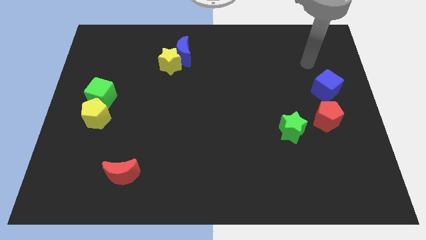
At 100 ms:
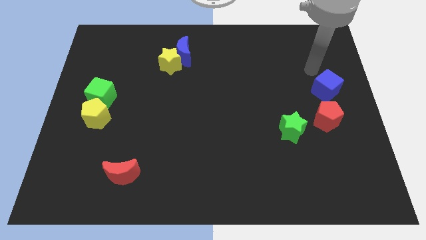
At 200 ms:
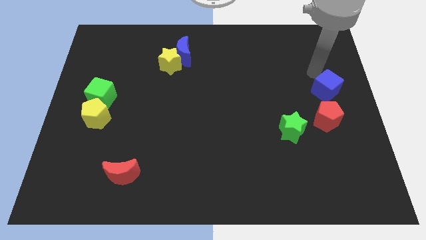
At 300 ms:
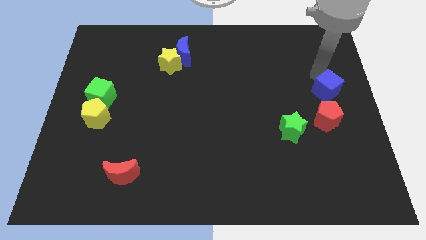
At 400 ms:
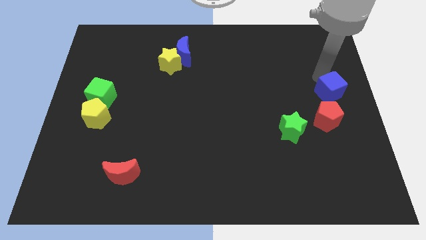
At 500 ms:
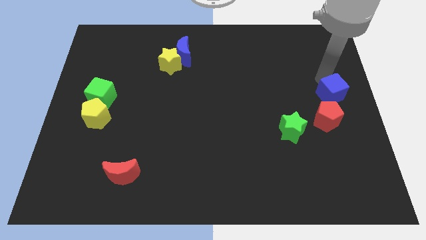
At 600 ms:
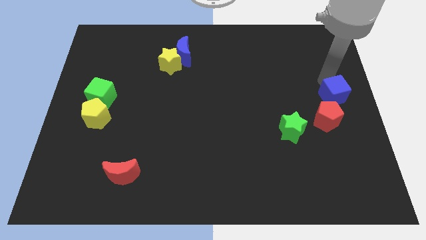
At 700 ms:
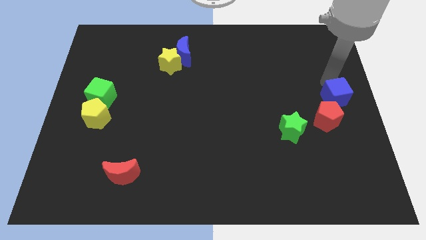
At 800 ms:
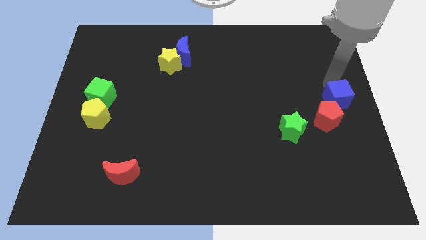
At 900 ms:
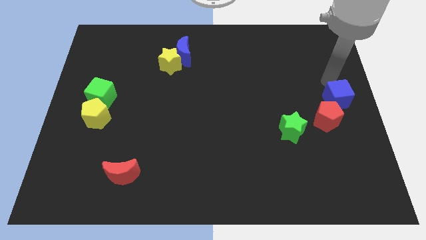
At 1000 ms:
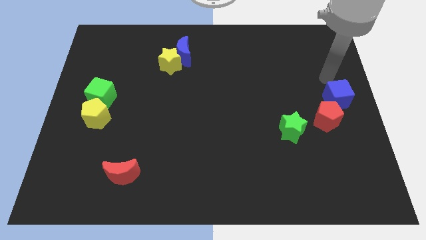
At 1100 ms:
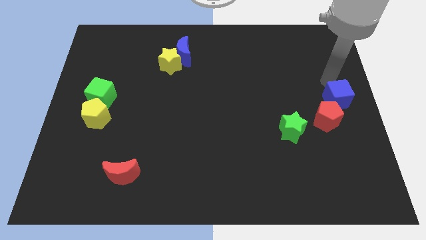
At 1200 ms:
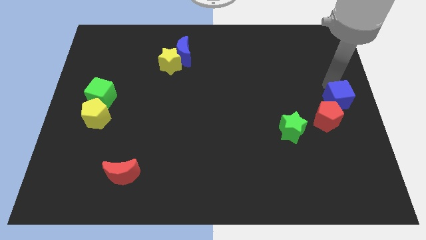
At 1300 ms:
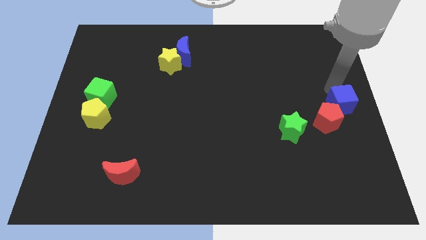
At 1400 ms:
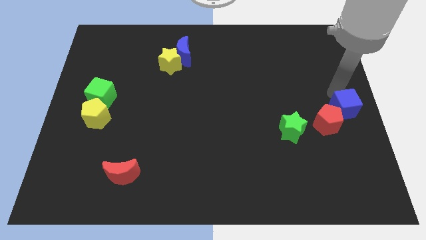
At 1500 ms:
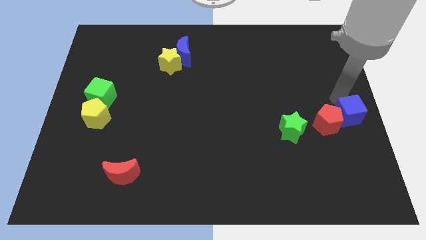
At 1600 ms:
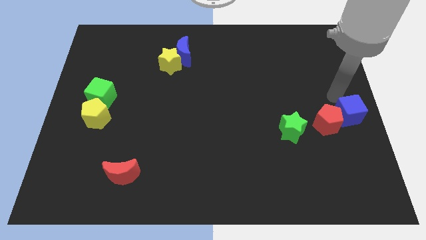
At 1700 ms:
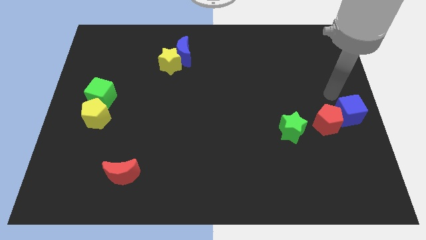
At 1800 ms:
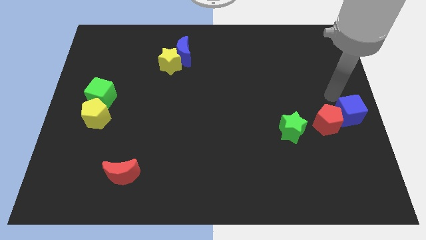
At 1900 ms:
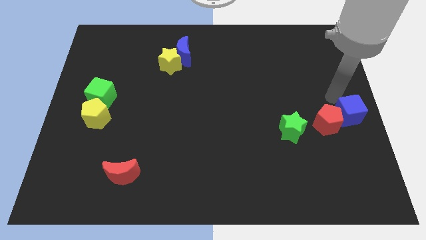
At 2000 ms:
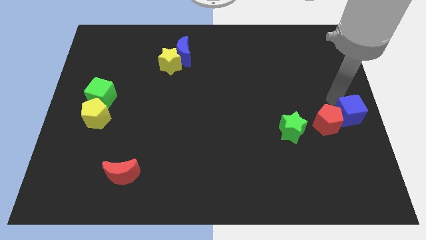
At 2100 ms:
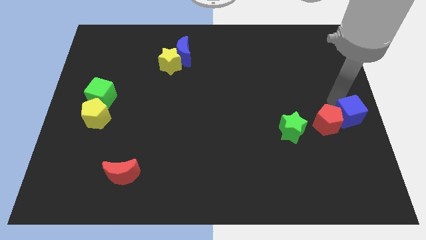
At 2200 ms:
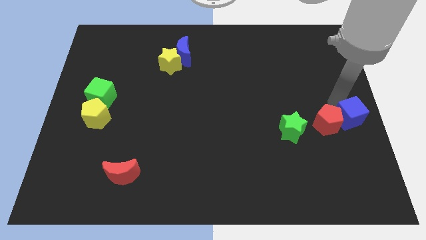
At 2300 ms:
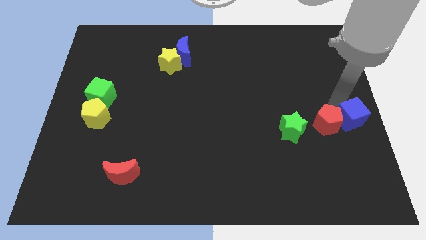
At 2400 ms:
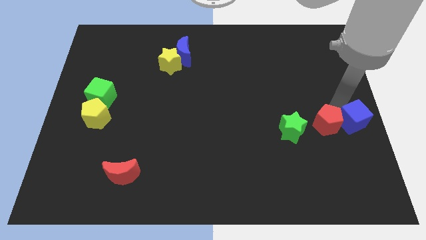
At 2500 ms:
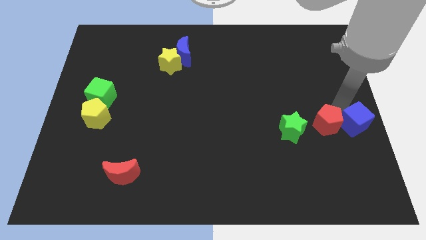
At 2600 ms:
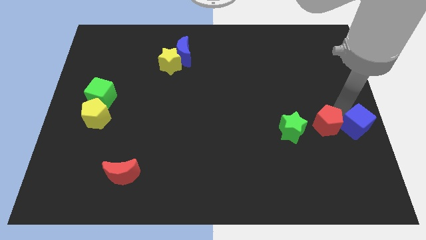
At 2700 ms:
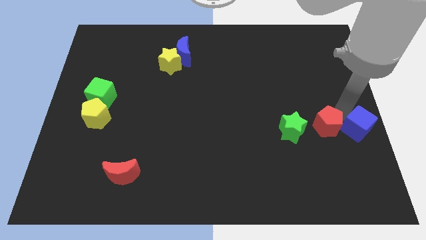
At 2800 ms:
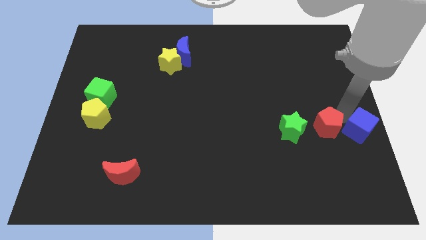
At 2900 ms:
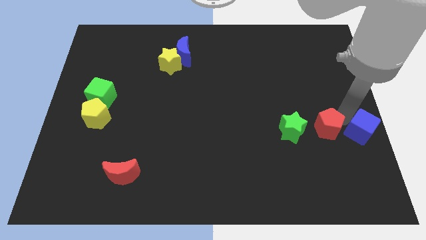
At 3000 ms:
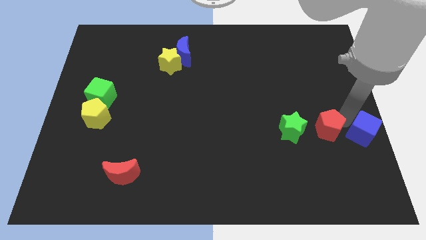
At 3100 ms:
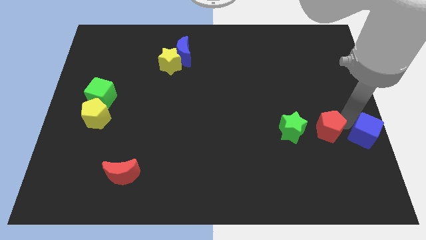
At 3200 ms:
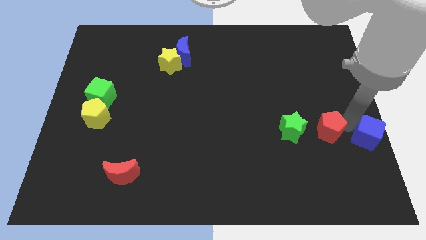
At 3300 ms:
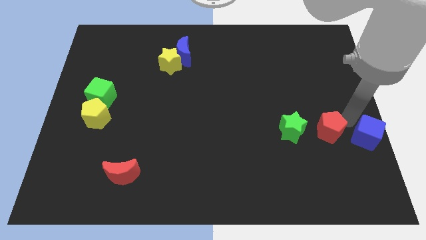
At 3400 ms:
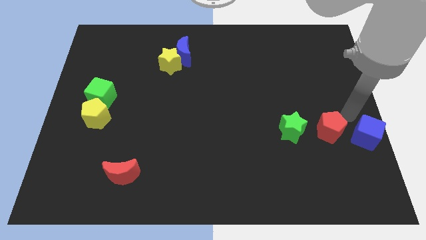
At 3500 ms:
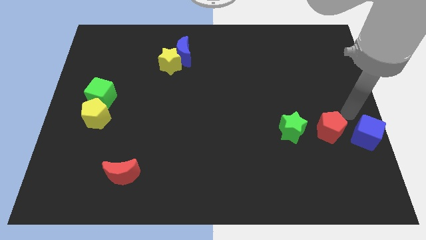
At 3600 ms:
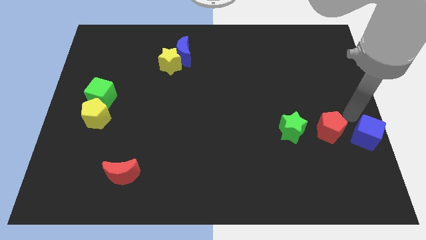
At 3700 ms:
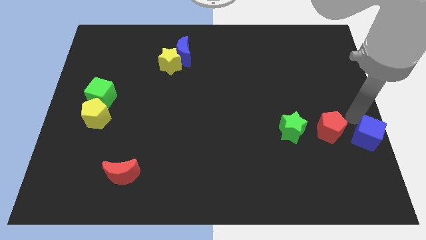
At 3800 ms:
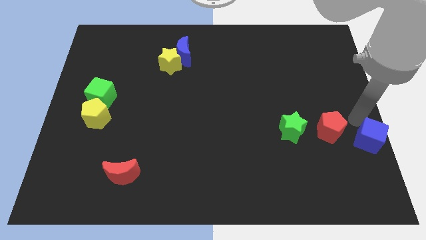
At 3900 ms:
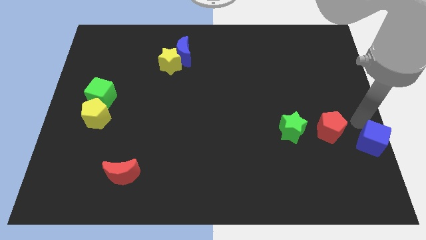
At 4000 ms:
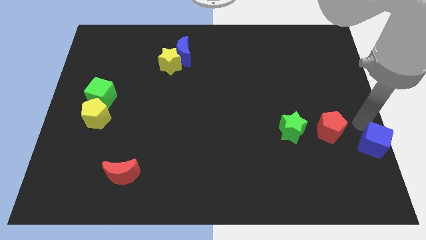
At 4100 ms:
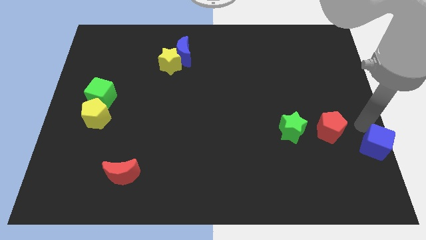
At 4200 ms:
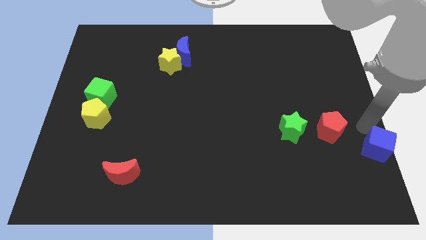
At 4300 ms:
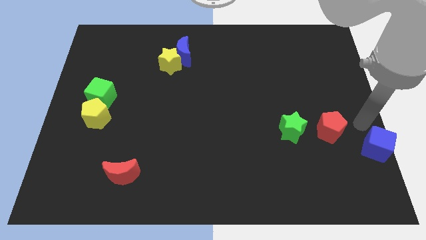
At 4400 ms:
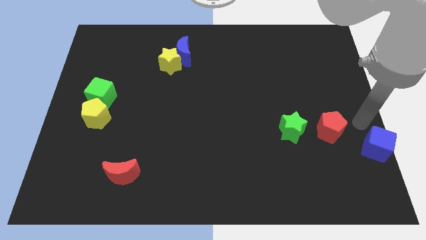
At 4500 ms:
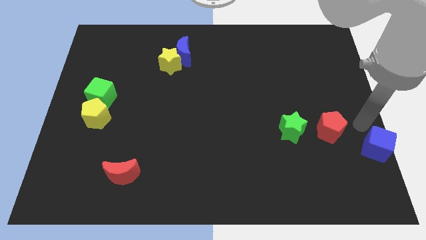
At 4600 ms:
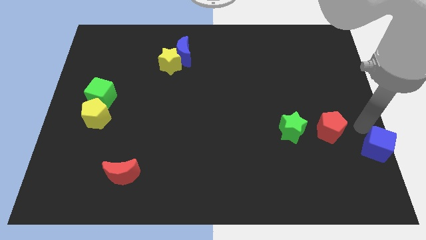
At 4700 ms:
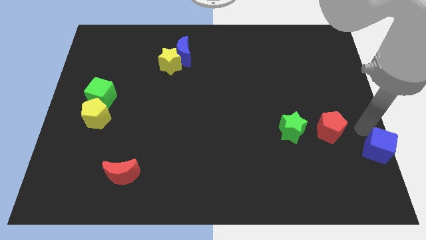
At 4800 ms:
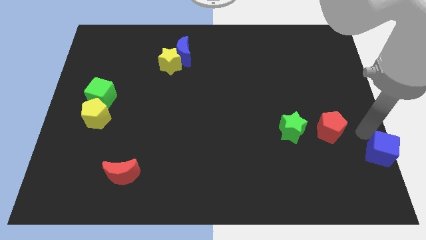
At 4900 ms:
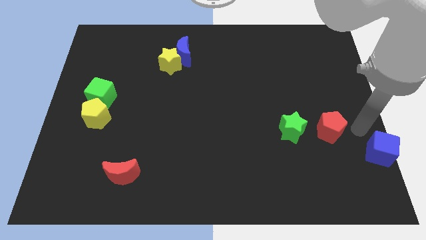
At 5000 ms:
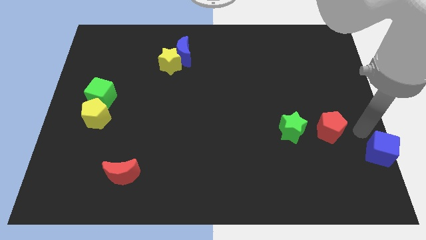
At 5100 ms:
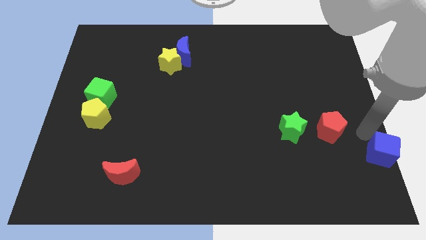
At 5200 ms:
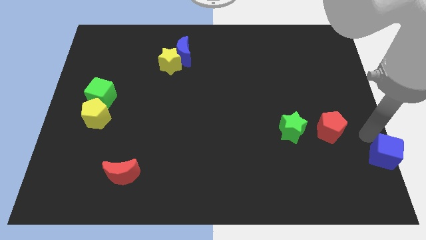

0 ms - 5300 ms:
push the blue cube to the bottom right

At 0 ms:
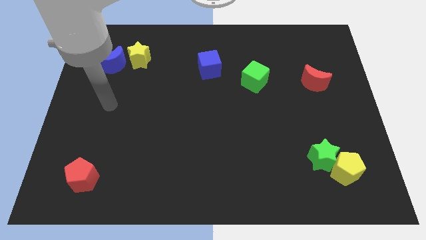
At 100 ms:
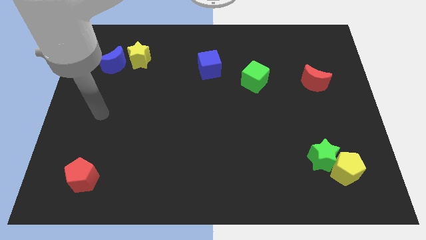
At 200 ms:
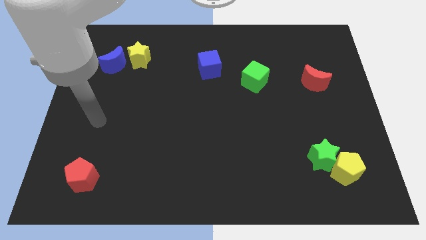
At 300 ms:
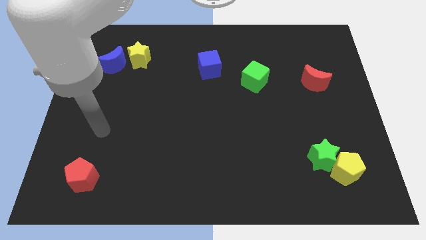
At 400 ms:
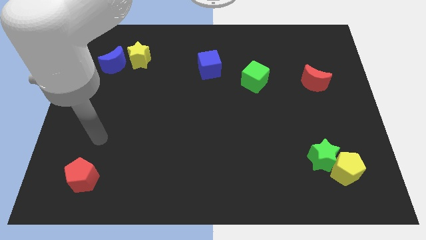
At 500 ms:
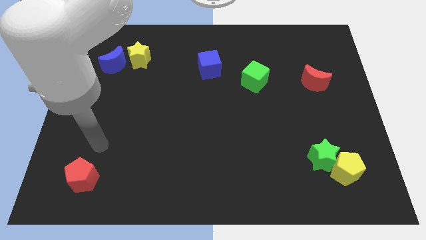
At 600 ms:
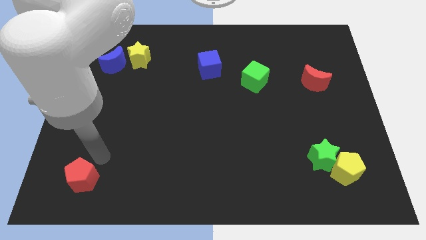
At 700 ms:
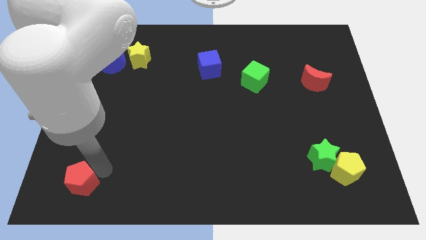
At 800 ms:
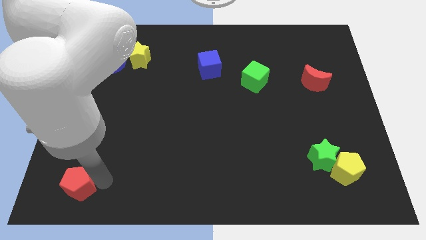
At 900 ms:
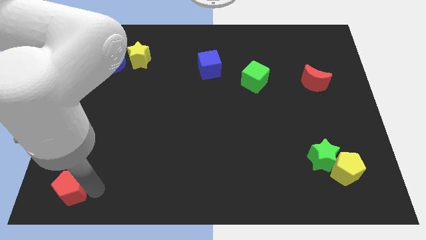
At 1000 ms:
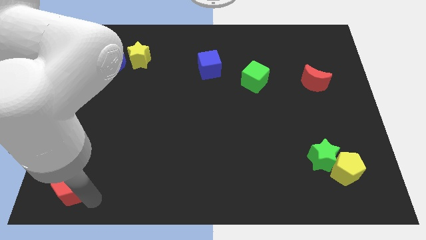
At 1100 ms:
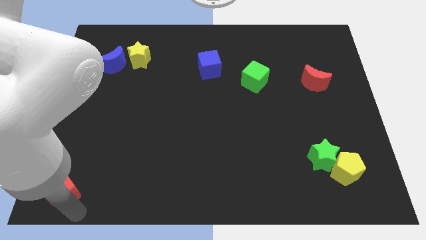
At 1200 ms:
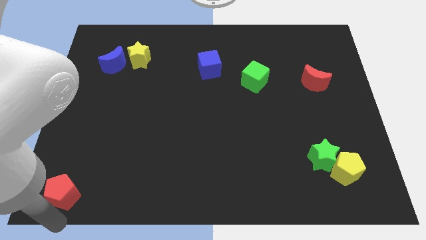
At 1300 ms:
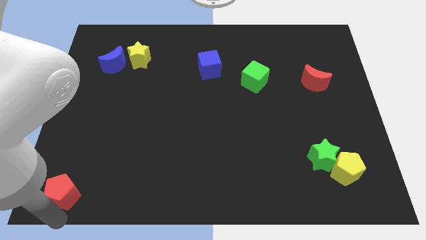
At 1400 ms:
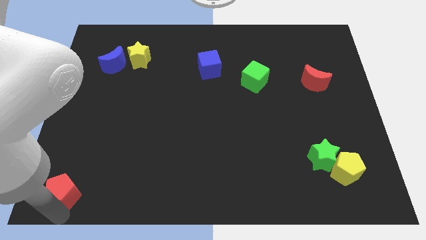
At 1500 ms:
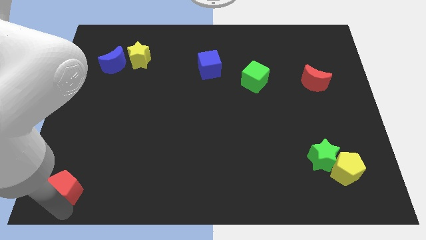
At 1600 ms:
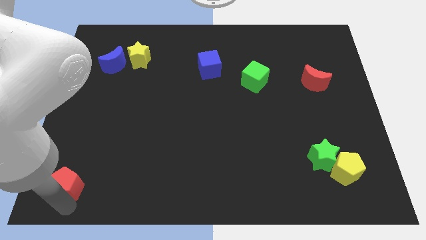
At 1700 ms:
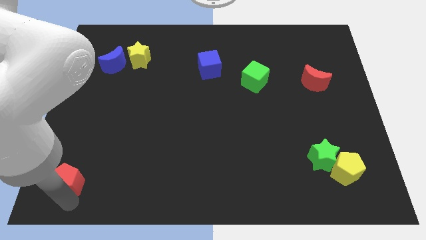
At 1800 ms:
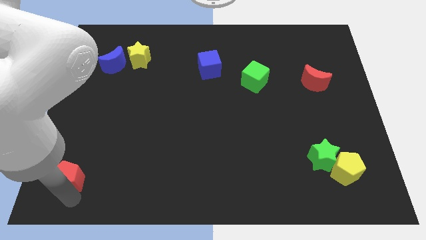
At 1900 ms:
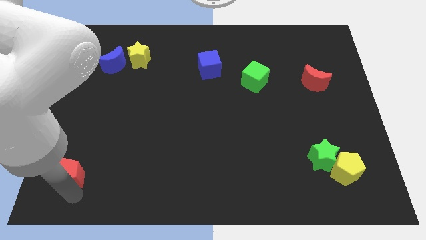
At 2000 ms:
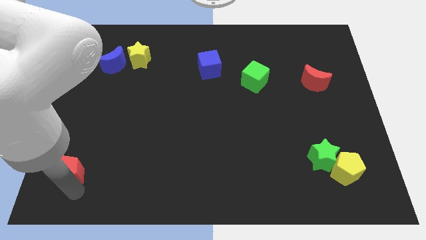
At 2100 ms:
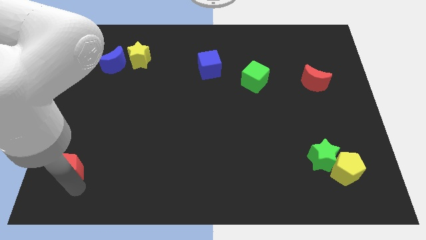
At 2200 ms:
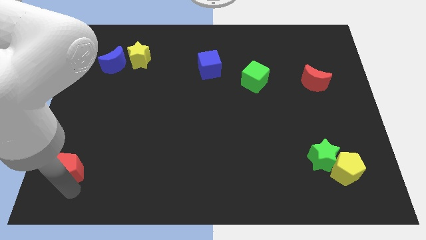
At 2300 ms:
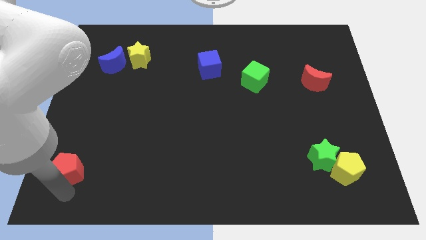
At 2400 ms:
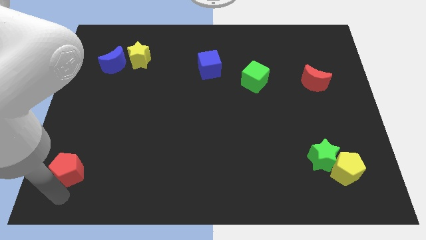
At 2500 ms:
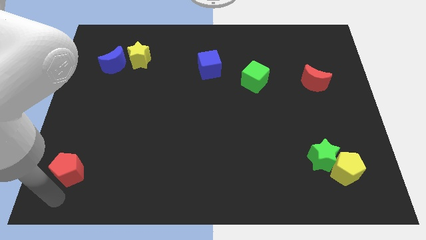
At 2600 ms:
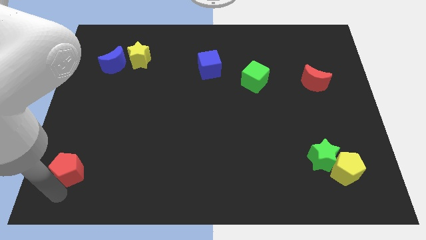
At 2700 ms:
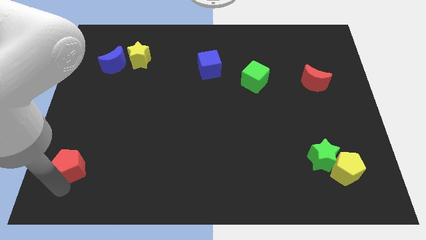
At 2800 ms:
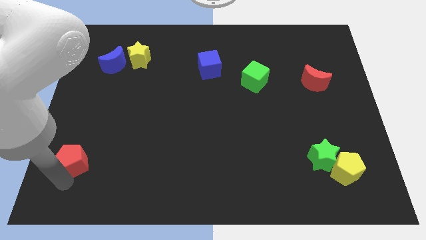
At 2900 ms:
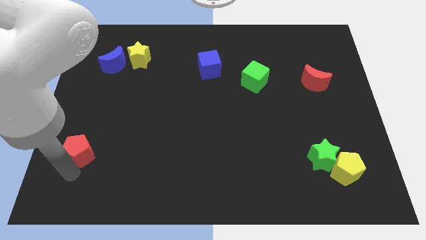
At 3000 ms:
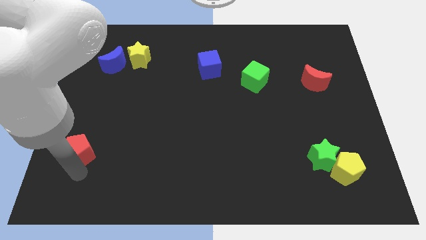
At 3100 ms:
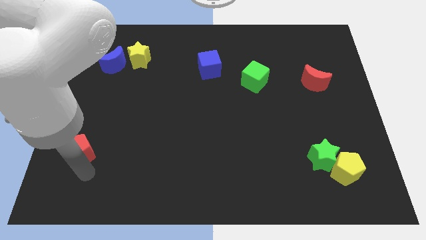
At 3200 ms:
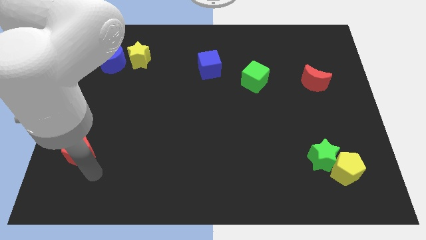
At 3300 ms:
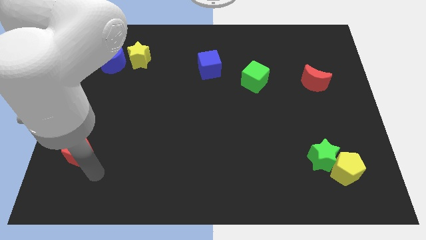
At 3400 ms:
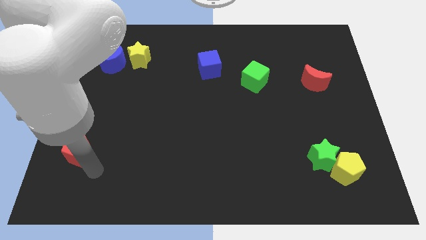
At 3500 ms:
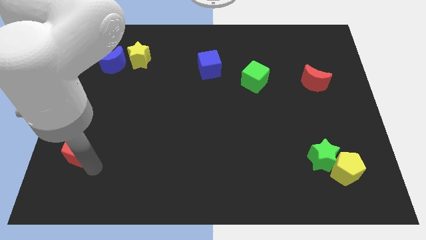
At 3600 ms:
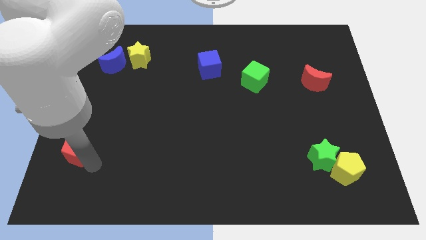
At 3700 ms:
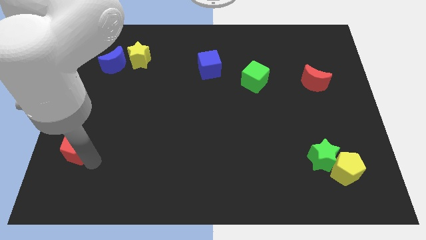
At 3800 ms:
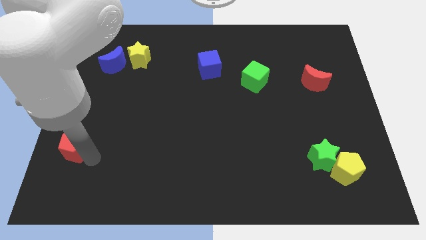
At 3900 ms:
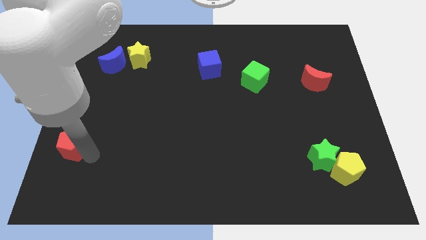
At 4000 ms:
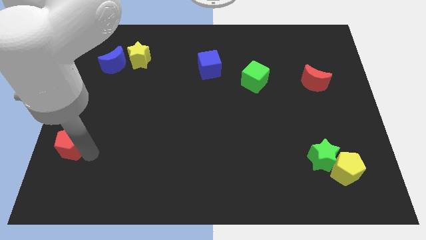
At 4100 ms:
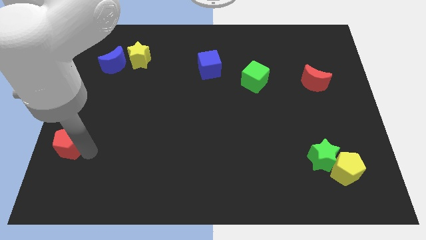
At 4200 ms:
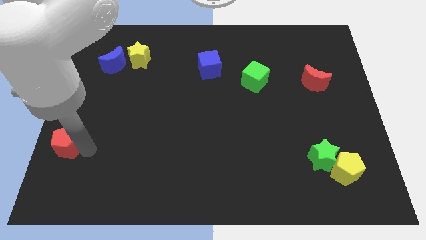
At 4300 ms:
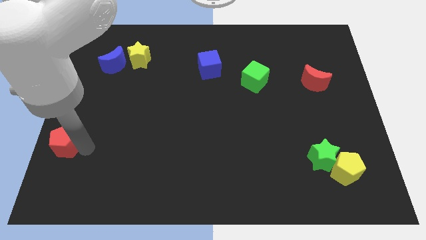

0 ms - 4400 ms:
move the red pentagon to the left side of the board
